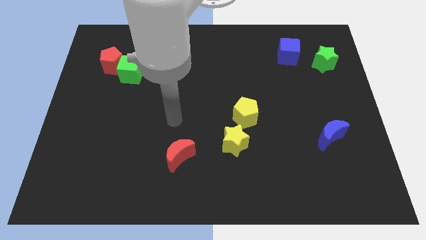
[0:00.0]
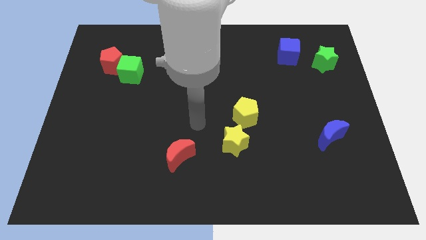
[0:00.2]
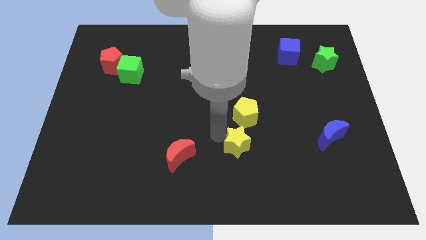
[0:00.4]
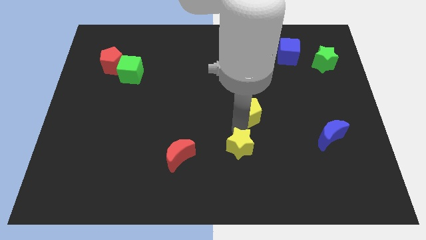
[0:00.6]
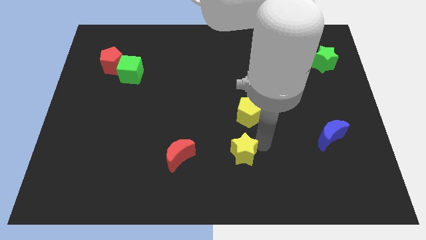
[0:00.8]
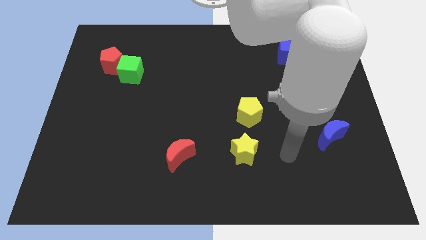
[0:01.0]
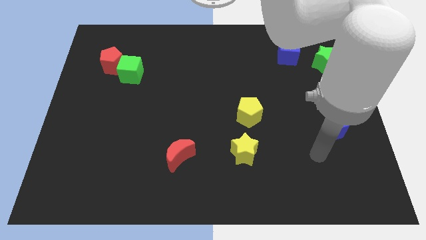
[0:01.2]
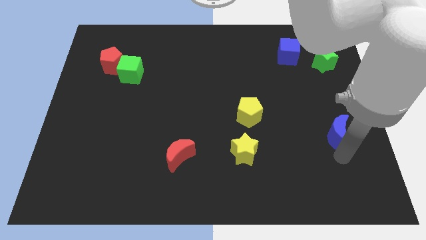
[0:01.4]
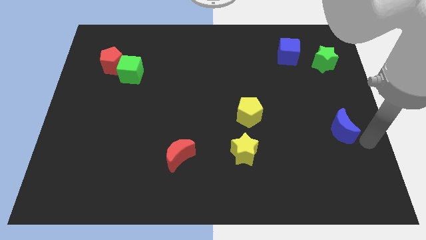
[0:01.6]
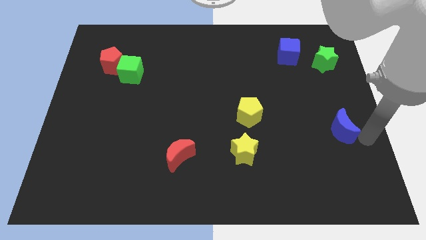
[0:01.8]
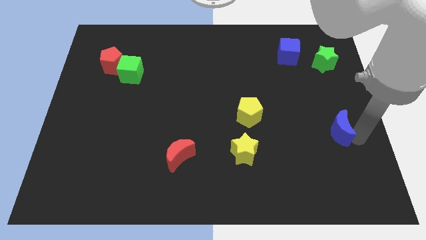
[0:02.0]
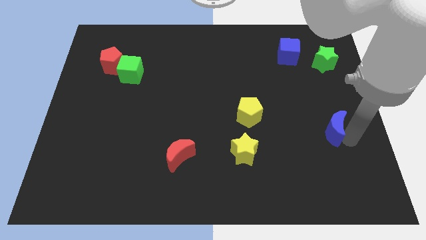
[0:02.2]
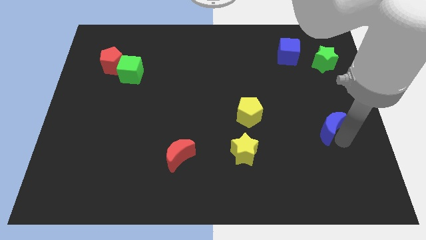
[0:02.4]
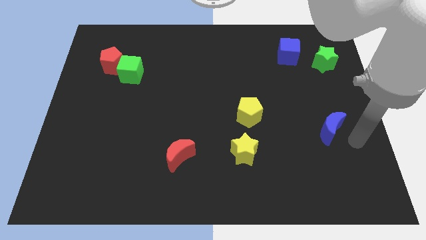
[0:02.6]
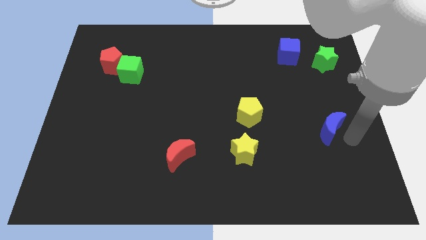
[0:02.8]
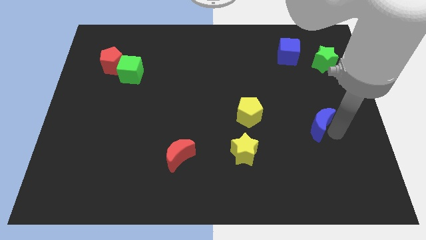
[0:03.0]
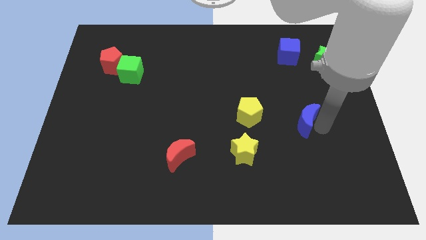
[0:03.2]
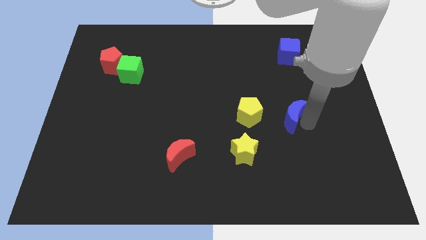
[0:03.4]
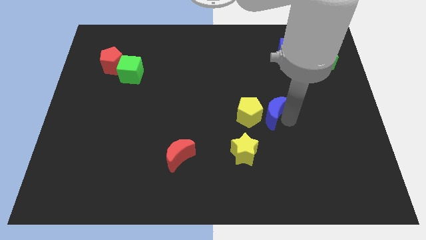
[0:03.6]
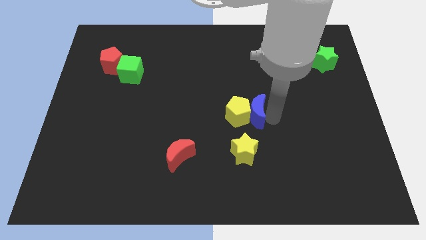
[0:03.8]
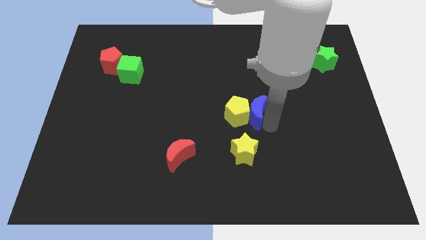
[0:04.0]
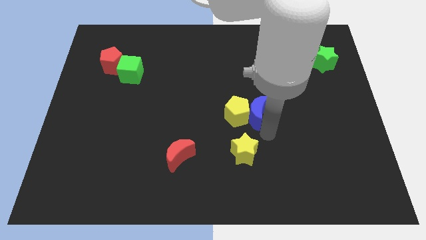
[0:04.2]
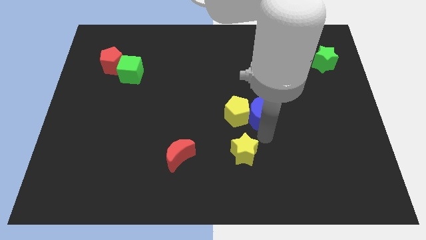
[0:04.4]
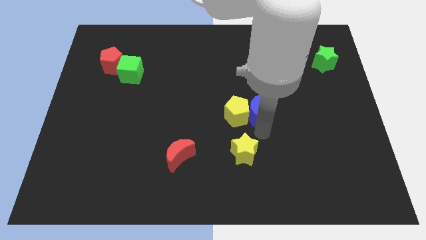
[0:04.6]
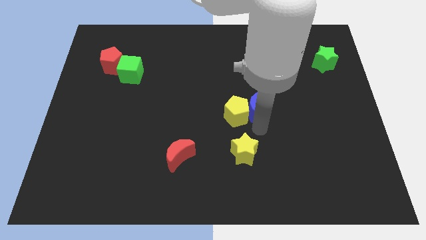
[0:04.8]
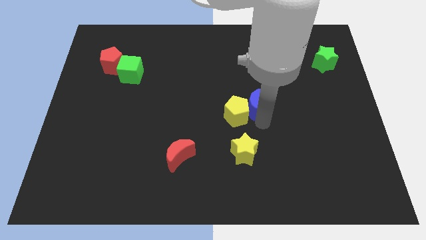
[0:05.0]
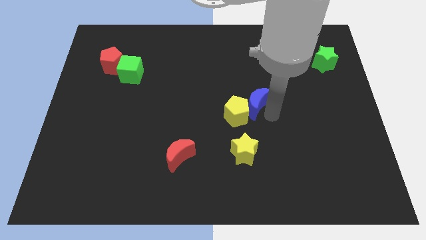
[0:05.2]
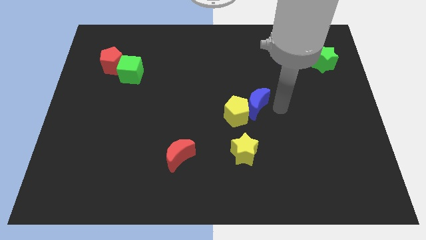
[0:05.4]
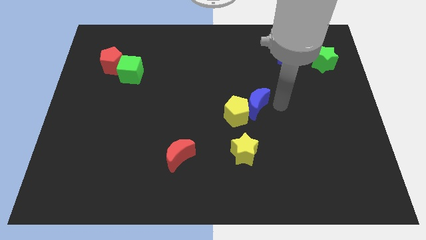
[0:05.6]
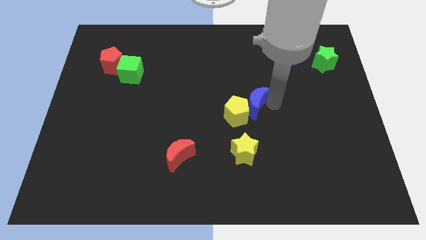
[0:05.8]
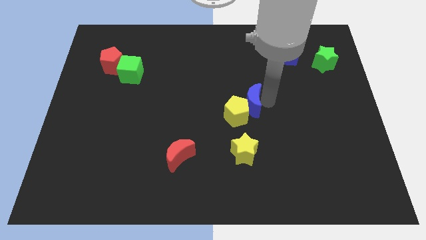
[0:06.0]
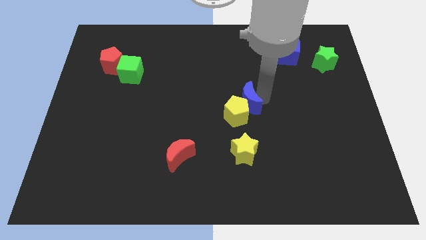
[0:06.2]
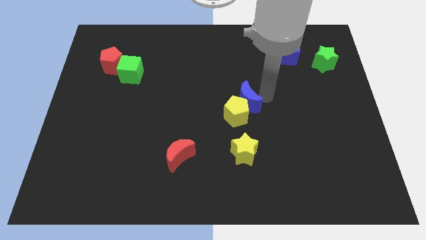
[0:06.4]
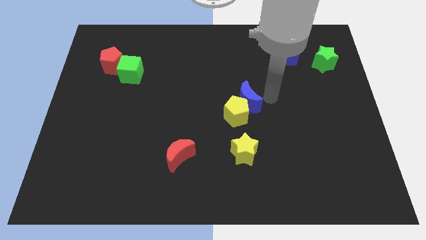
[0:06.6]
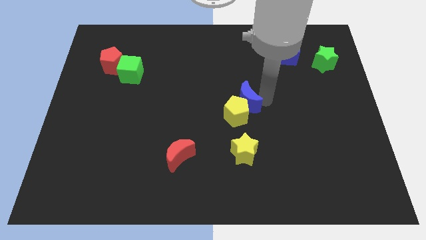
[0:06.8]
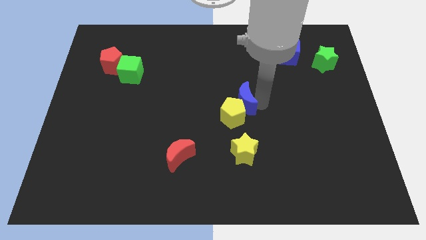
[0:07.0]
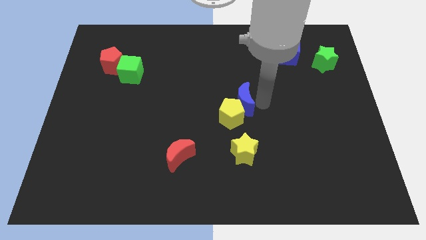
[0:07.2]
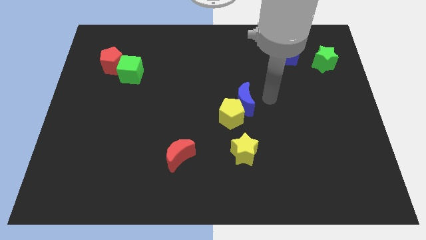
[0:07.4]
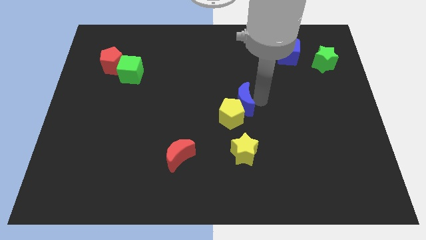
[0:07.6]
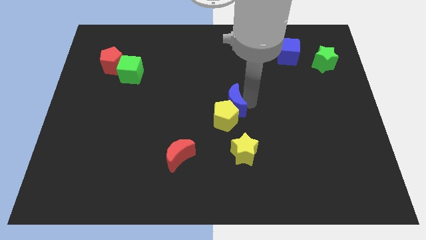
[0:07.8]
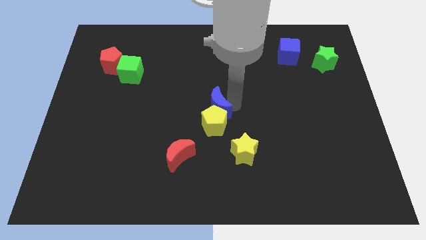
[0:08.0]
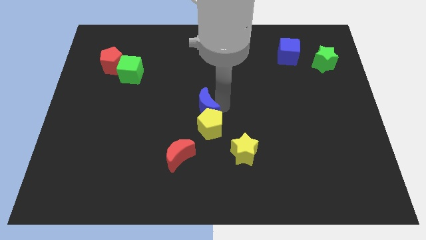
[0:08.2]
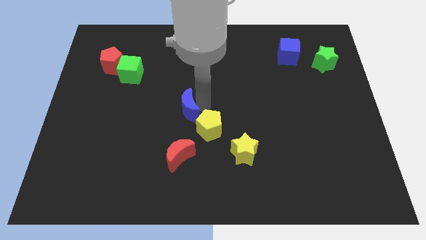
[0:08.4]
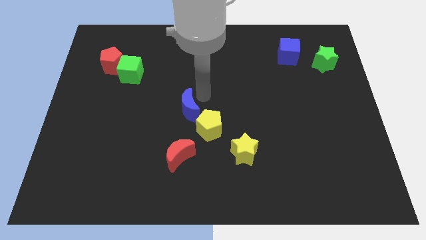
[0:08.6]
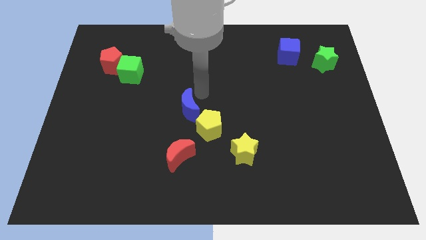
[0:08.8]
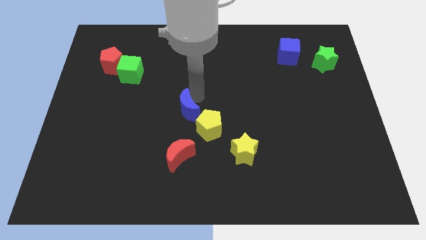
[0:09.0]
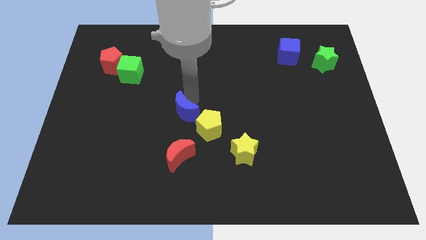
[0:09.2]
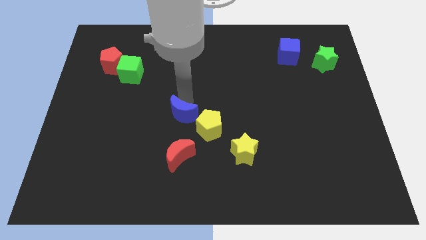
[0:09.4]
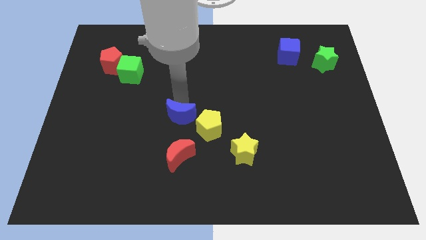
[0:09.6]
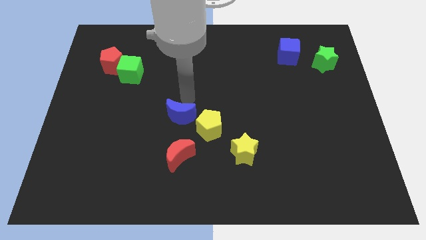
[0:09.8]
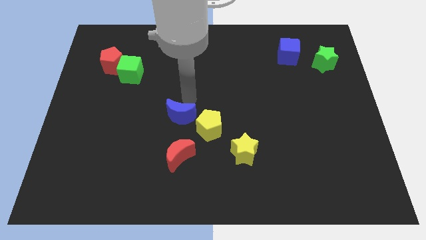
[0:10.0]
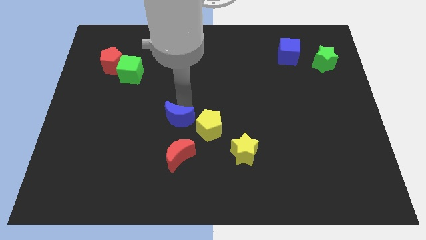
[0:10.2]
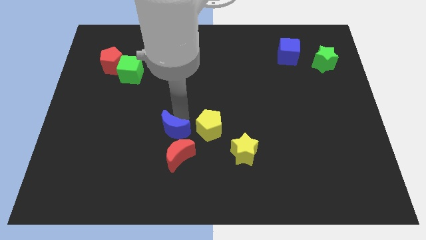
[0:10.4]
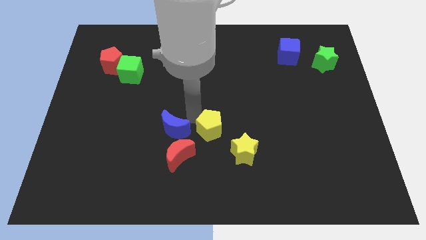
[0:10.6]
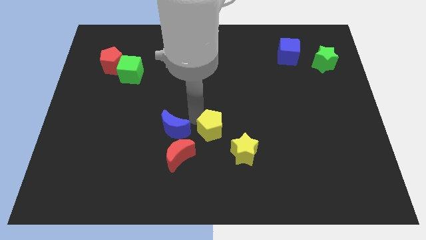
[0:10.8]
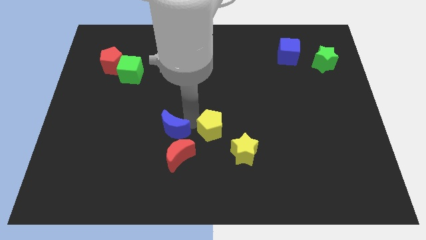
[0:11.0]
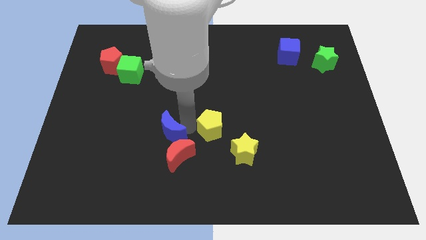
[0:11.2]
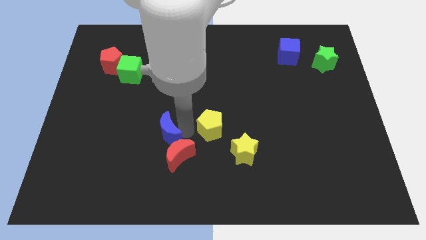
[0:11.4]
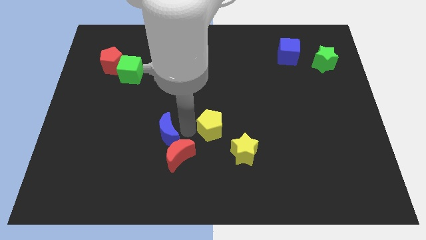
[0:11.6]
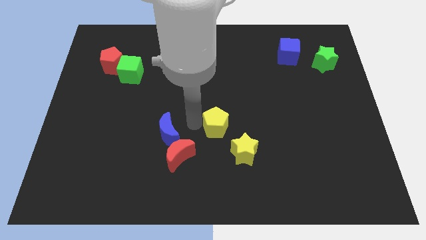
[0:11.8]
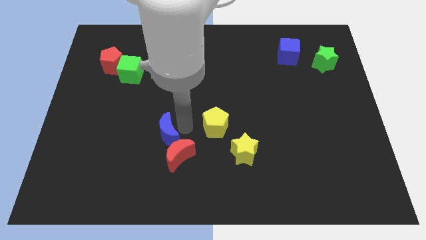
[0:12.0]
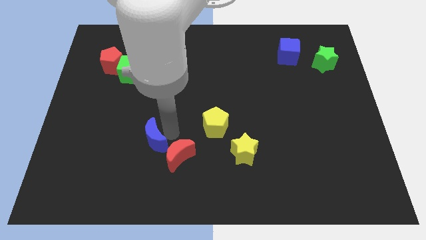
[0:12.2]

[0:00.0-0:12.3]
put the blue moon to the left of the red moon
